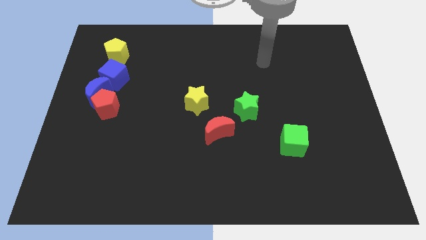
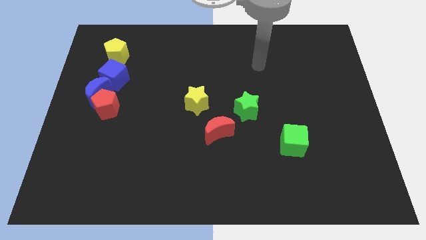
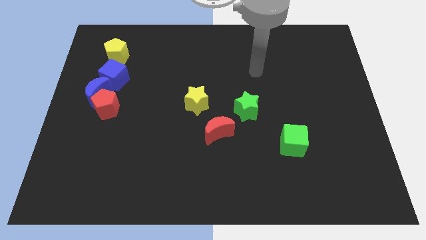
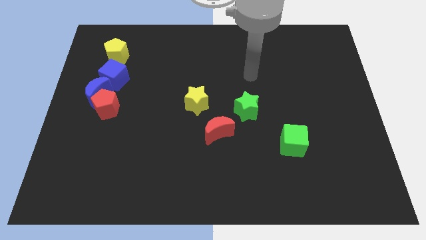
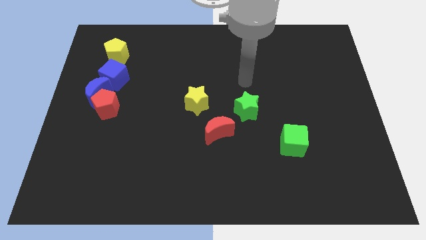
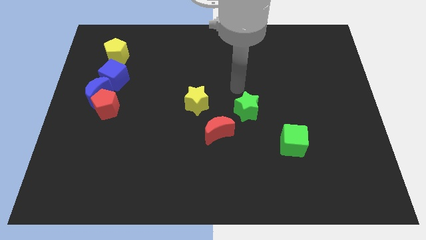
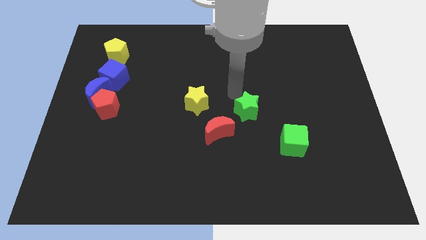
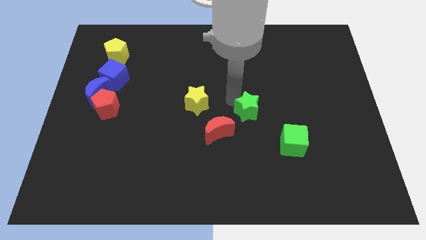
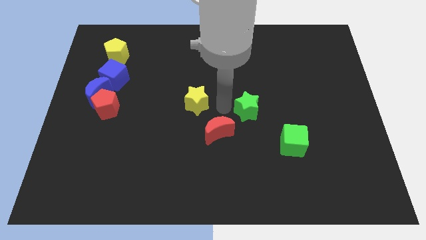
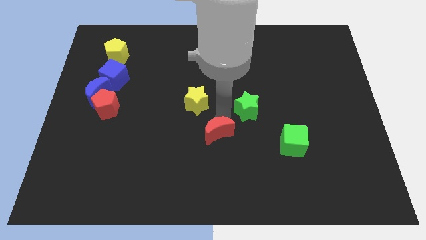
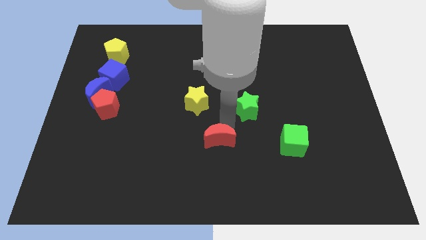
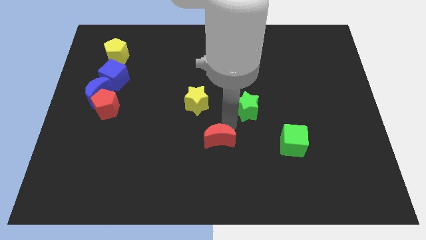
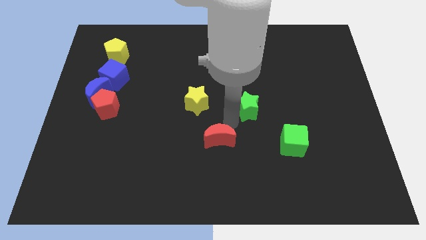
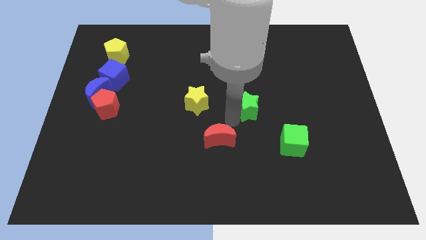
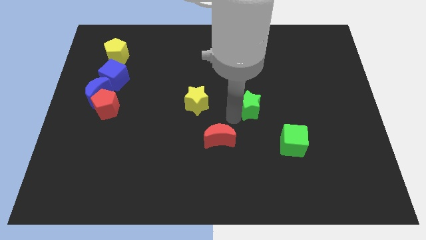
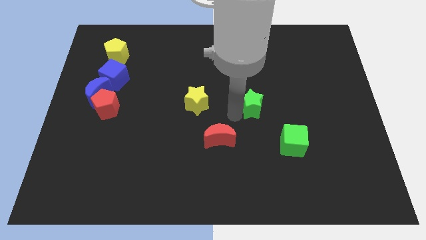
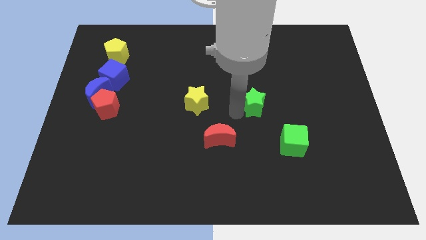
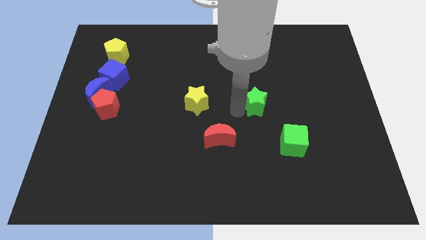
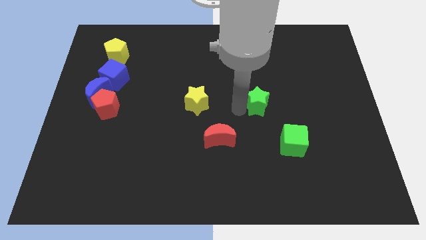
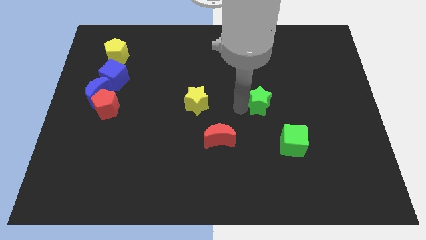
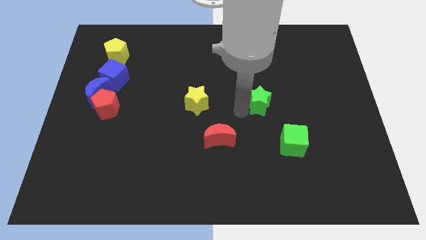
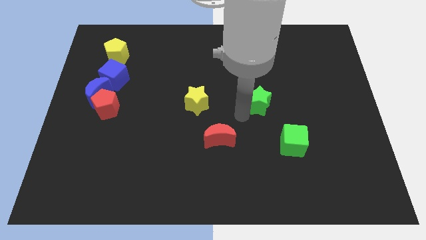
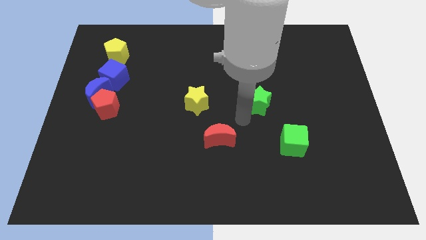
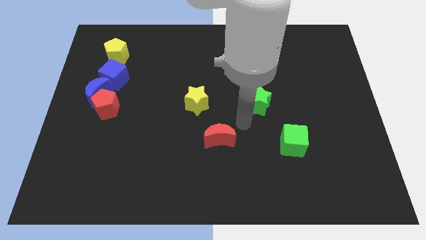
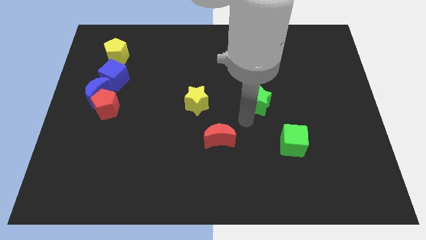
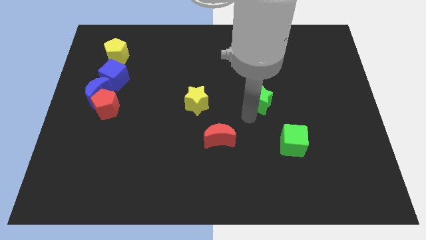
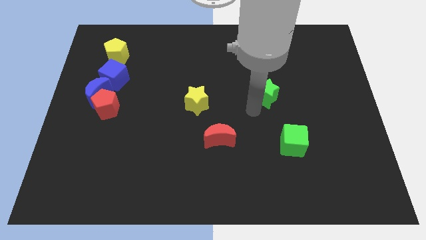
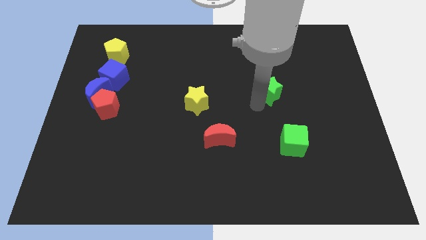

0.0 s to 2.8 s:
slightly slide the green star diagonally up and to the right

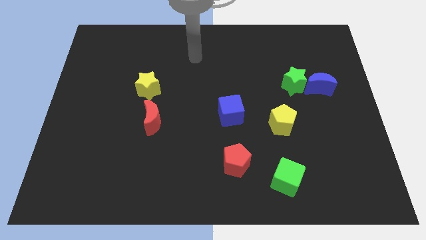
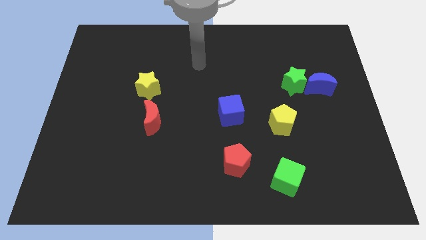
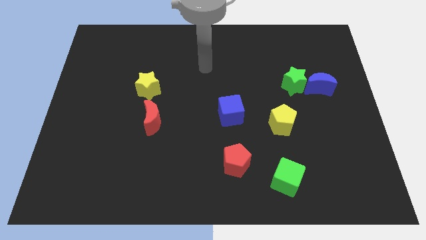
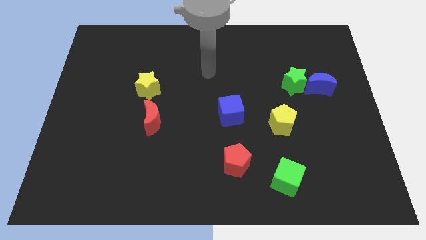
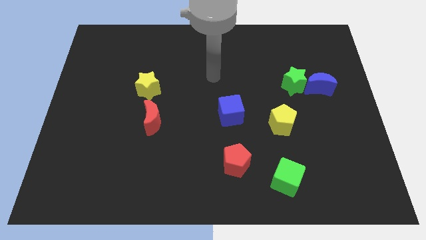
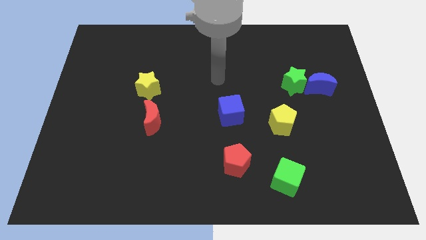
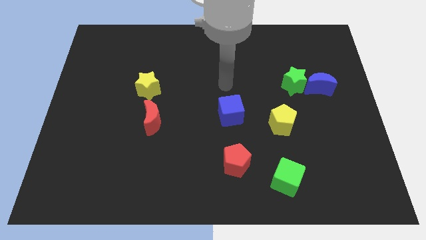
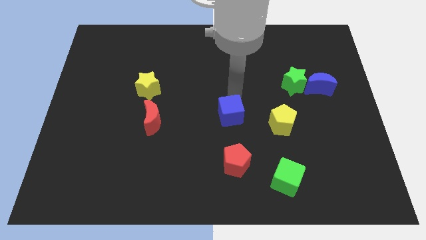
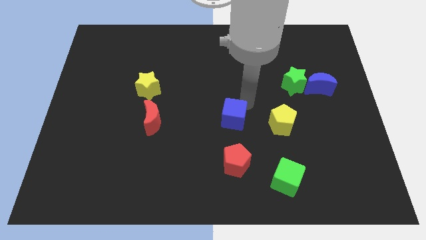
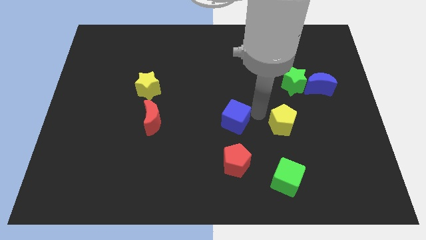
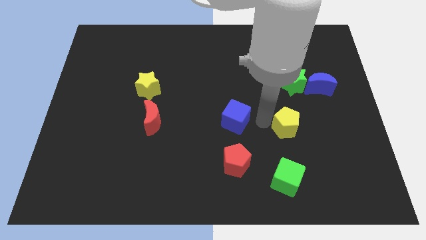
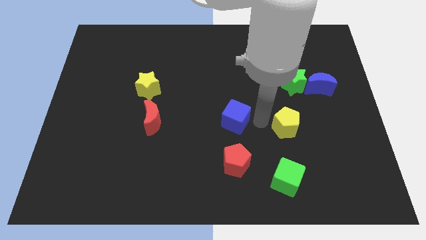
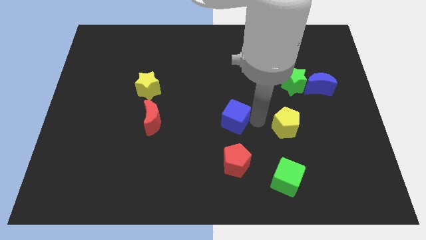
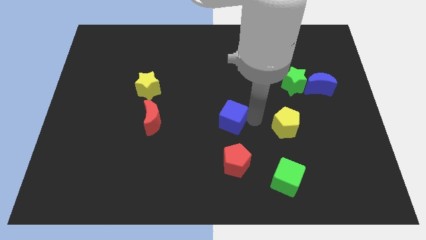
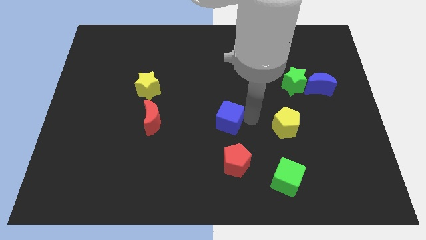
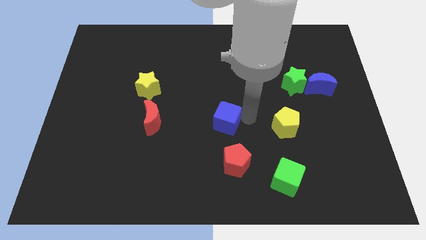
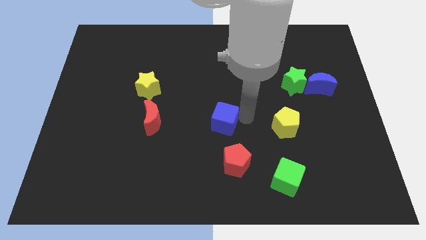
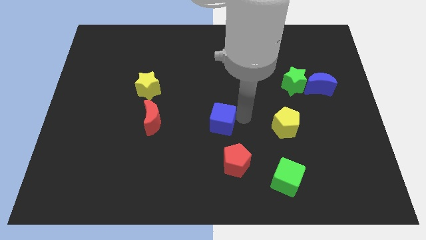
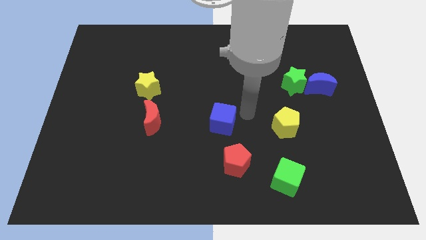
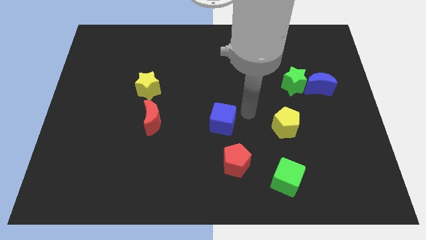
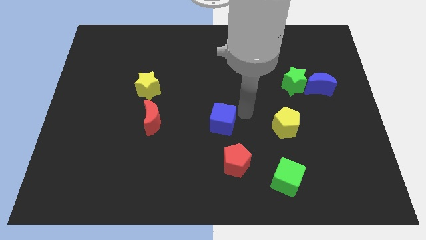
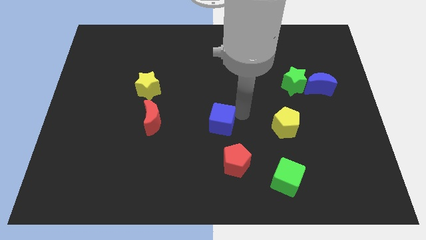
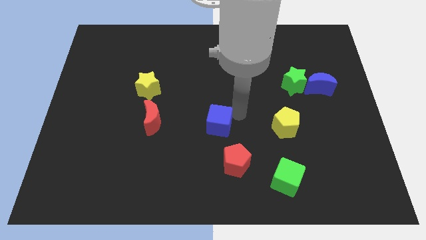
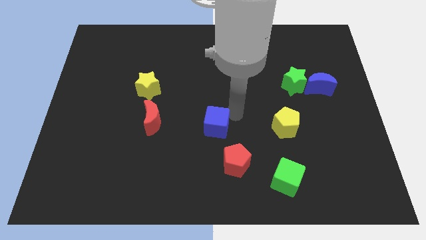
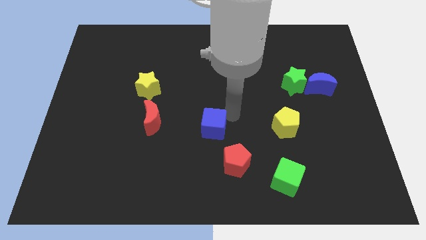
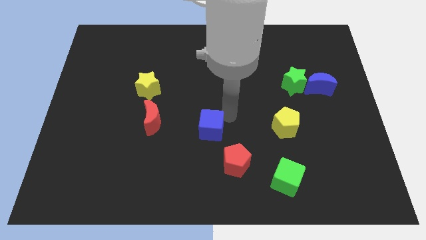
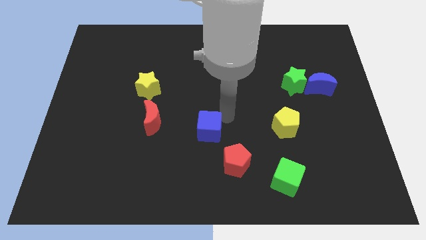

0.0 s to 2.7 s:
move the blue cube slightly diagonally down and to the left

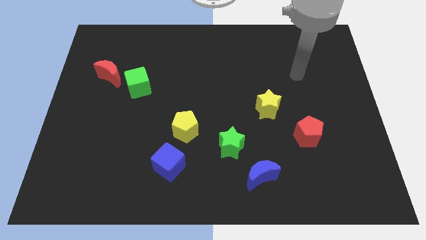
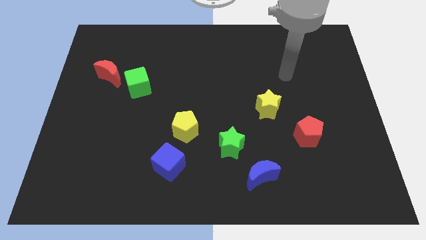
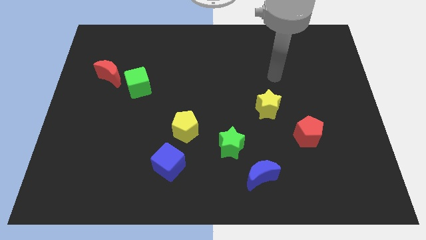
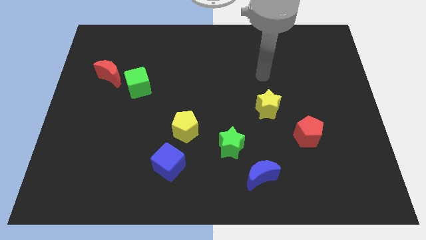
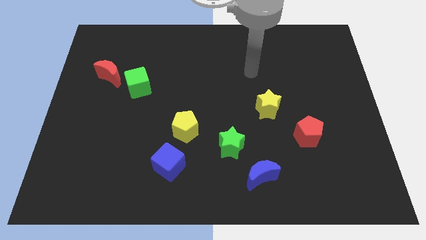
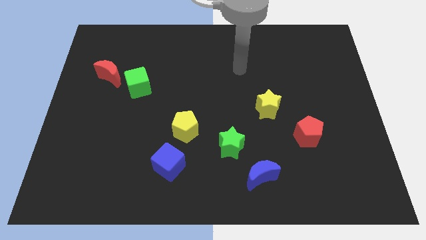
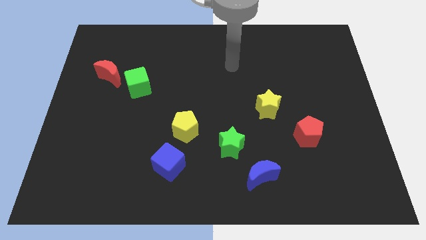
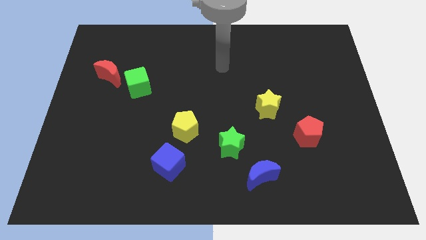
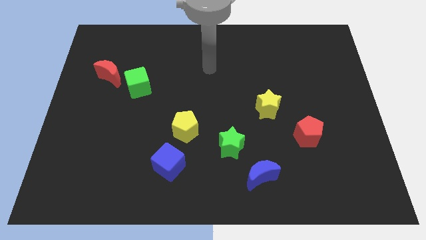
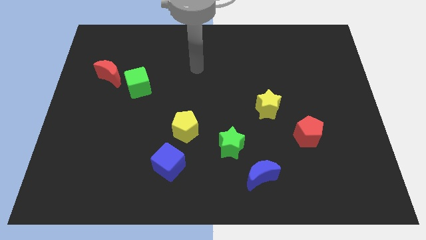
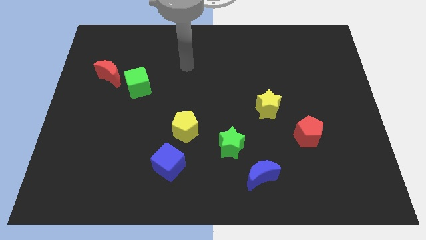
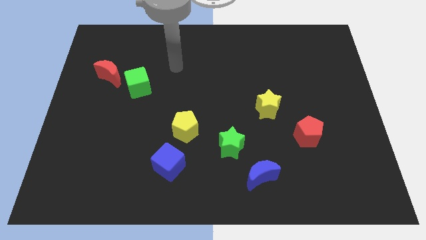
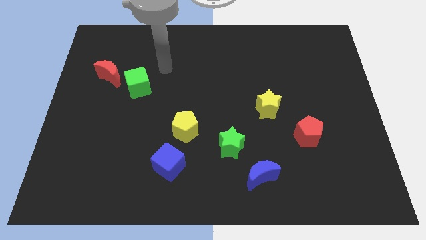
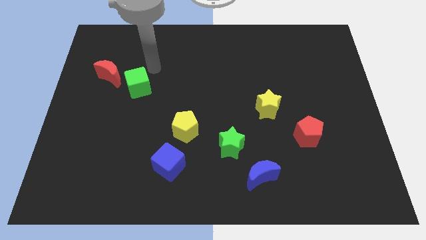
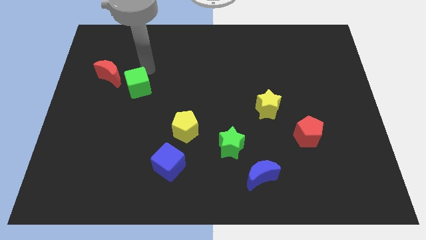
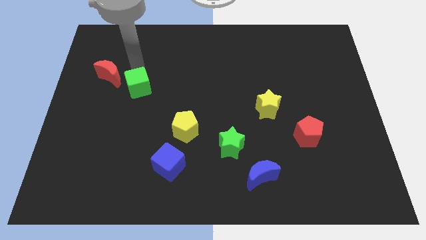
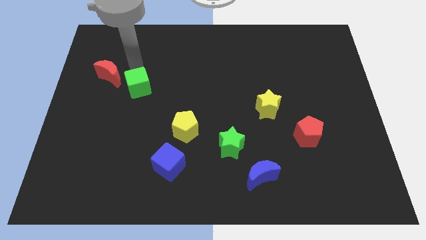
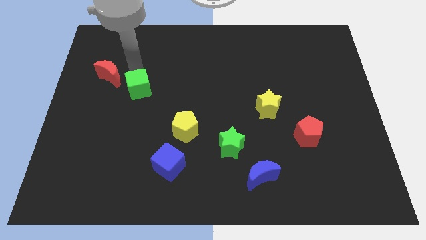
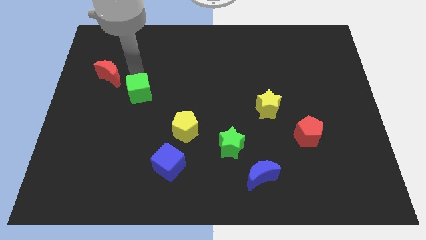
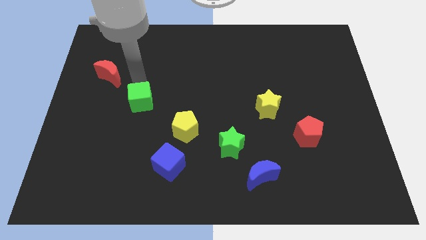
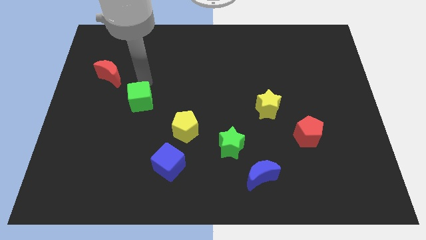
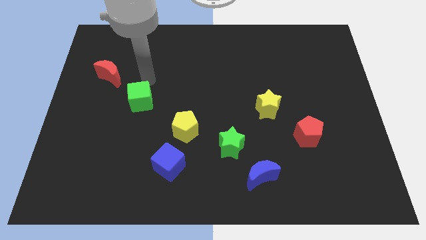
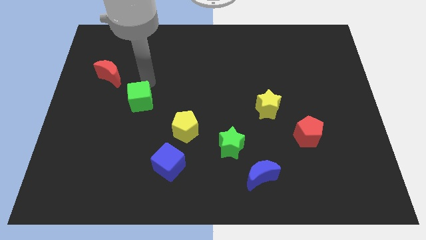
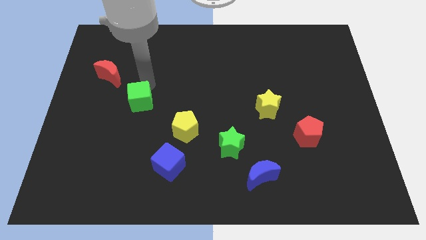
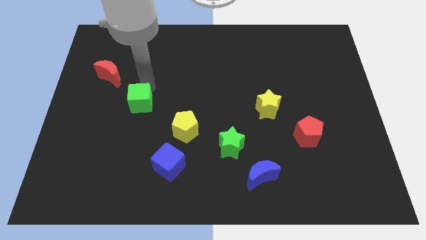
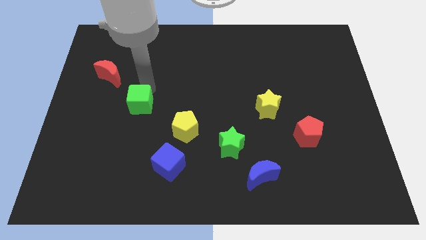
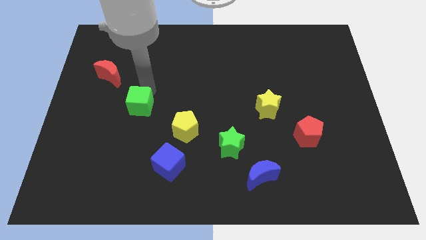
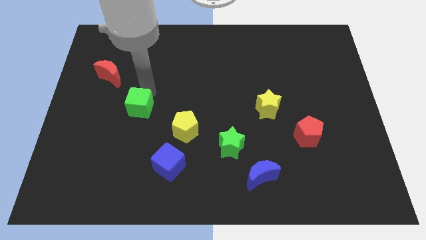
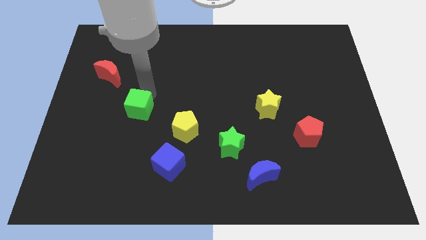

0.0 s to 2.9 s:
slightly push the green cube down
